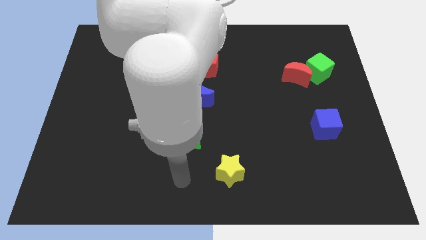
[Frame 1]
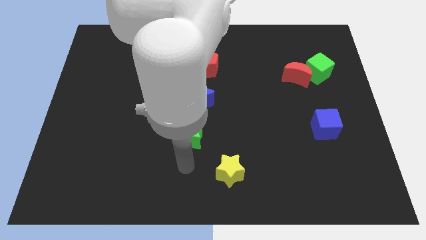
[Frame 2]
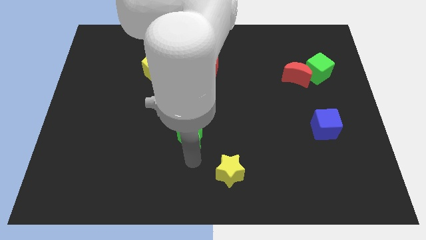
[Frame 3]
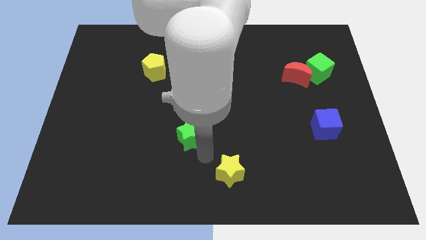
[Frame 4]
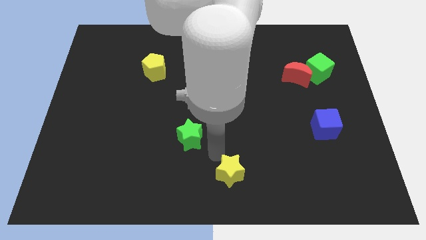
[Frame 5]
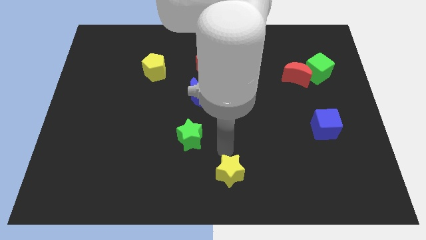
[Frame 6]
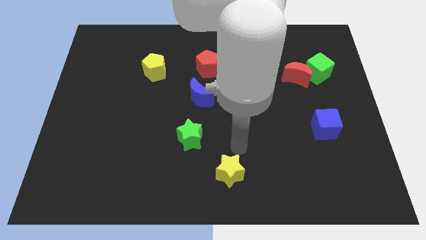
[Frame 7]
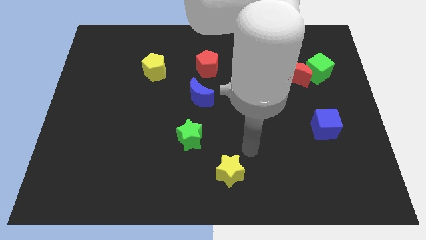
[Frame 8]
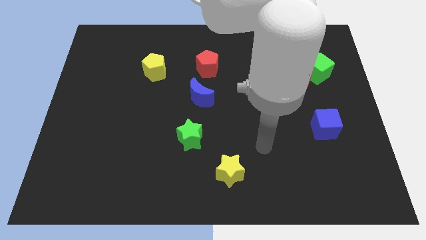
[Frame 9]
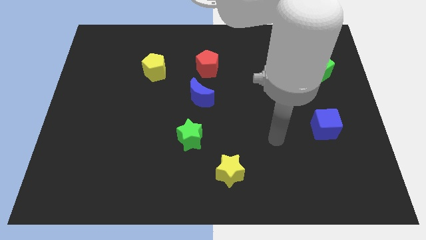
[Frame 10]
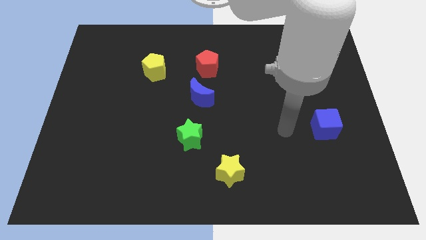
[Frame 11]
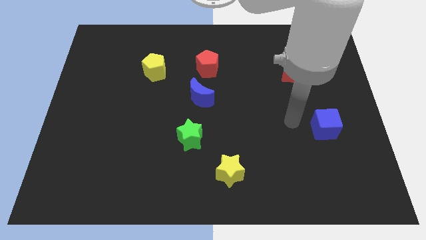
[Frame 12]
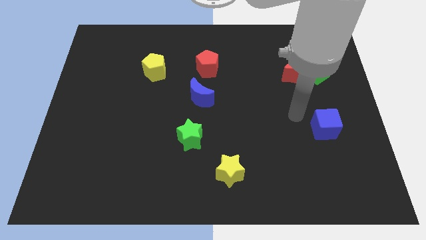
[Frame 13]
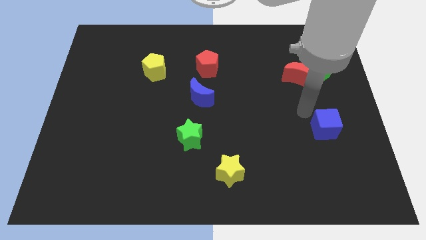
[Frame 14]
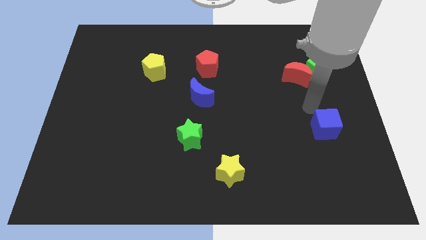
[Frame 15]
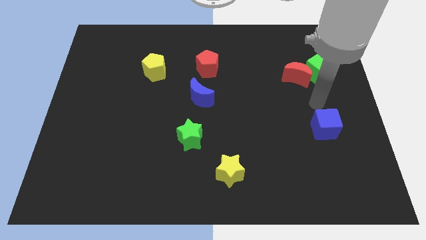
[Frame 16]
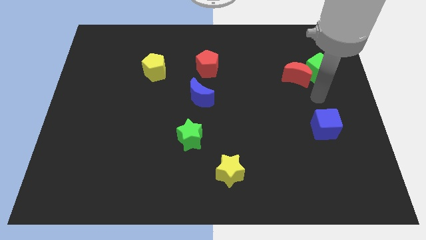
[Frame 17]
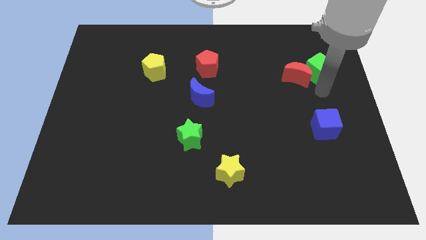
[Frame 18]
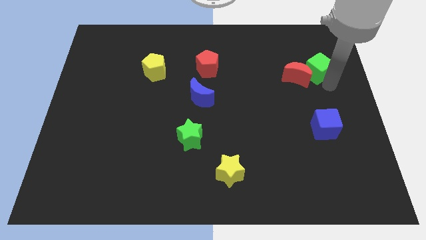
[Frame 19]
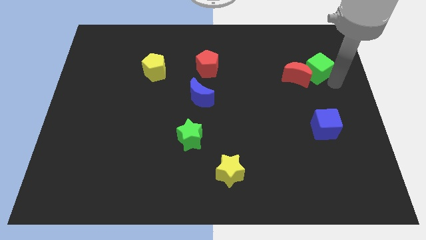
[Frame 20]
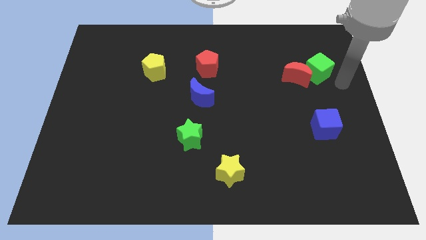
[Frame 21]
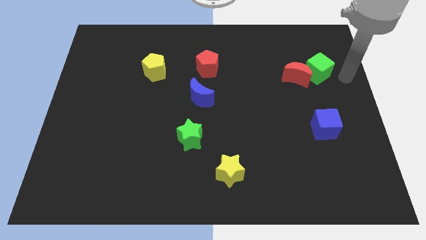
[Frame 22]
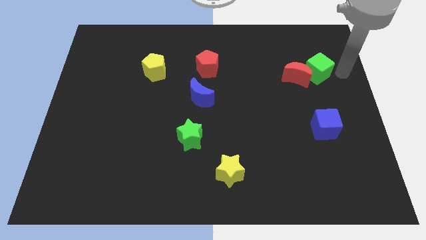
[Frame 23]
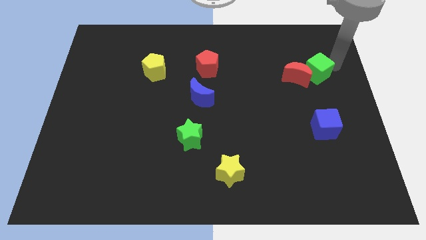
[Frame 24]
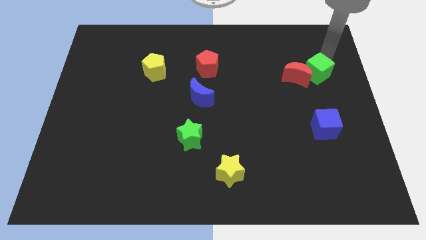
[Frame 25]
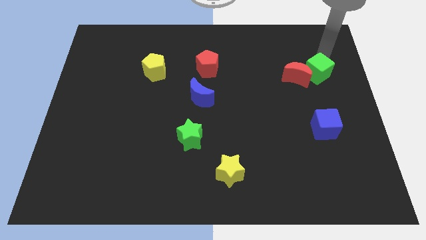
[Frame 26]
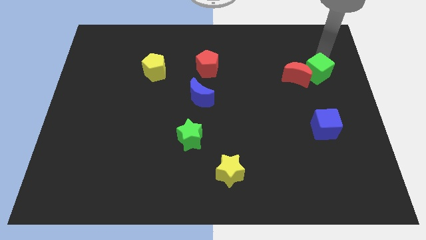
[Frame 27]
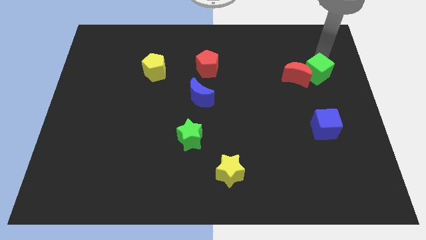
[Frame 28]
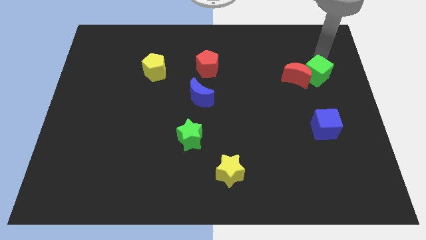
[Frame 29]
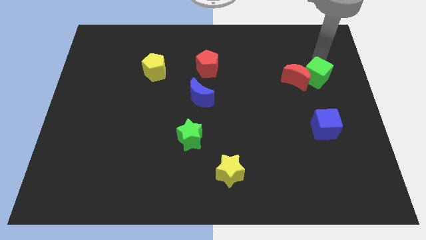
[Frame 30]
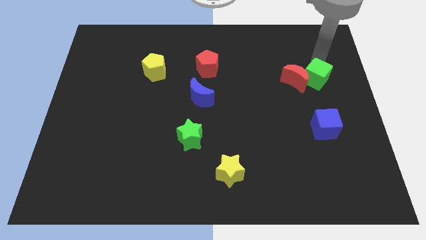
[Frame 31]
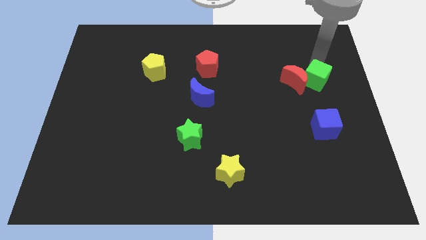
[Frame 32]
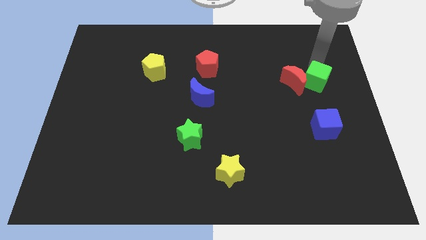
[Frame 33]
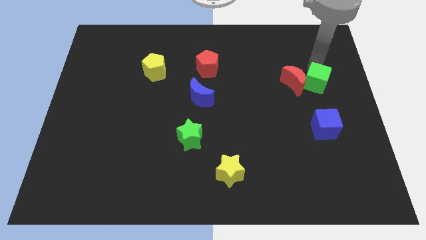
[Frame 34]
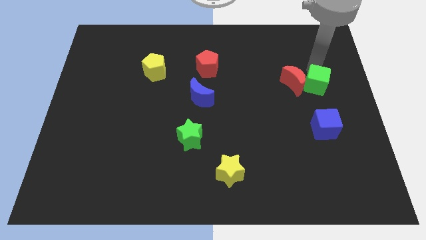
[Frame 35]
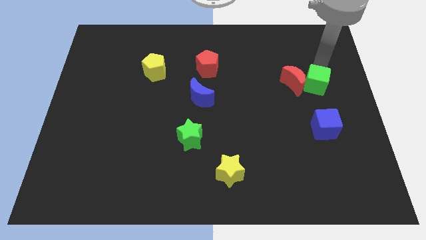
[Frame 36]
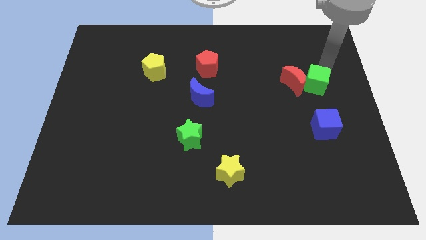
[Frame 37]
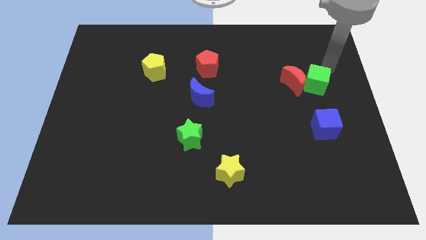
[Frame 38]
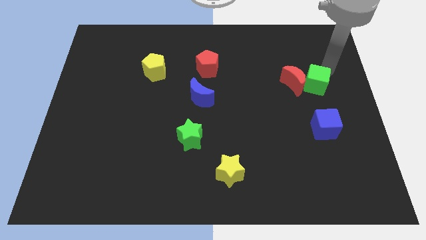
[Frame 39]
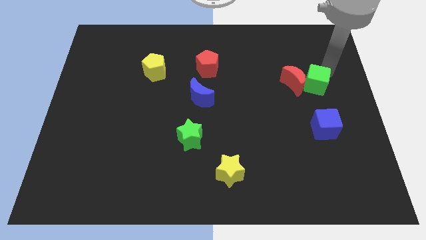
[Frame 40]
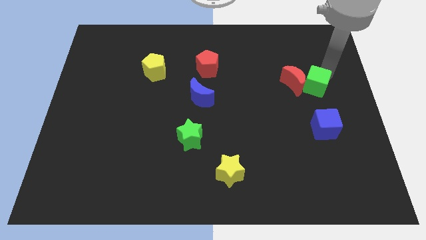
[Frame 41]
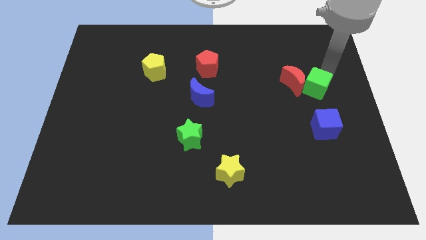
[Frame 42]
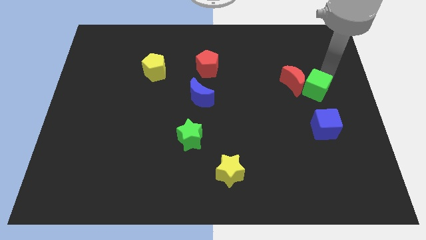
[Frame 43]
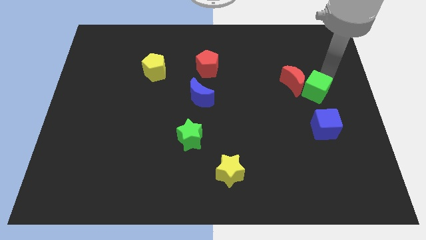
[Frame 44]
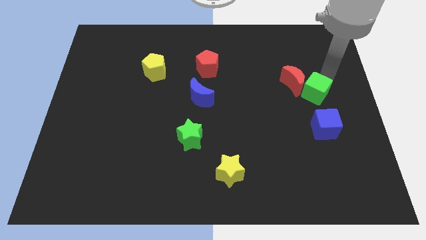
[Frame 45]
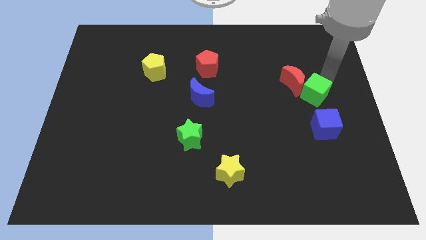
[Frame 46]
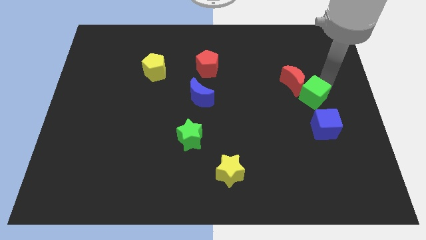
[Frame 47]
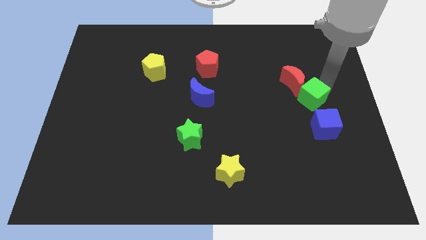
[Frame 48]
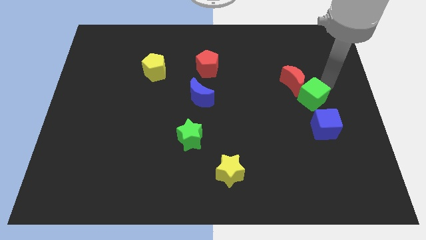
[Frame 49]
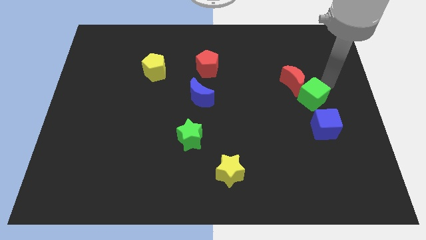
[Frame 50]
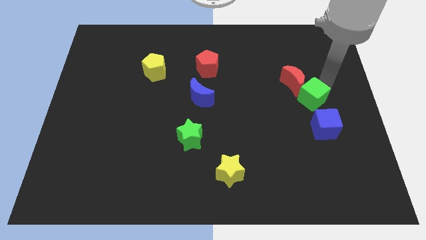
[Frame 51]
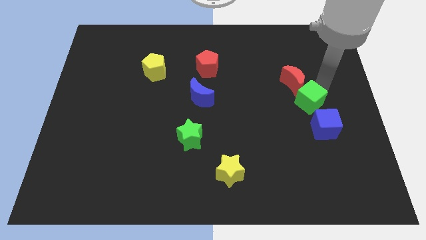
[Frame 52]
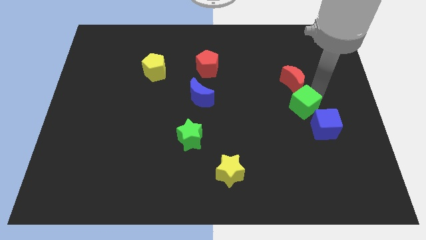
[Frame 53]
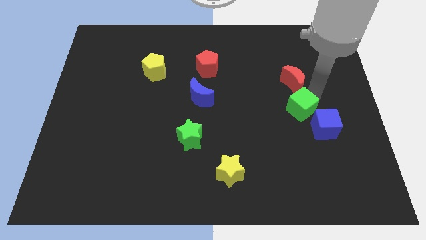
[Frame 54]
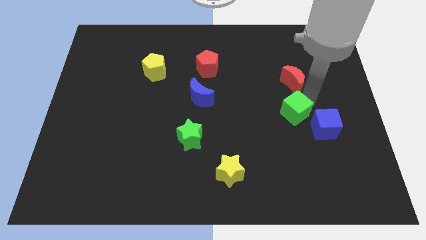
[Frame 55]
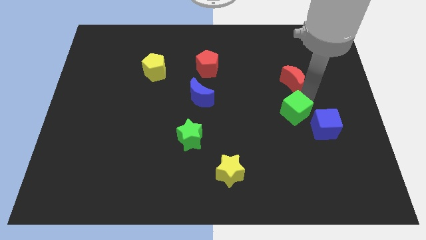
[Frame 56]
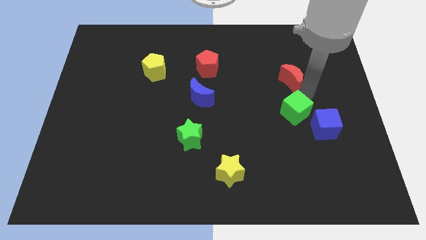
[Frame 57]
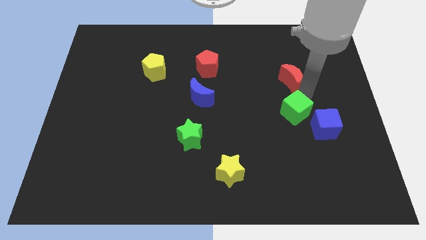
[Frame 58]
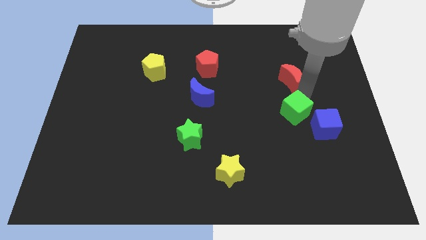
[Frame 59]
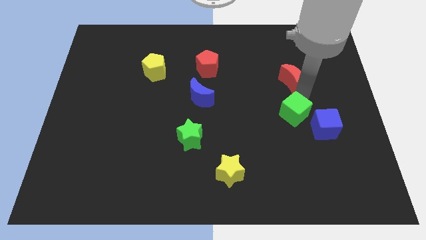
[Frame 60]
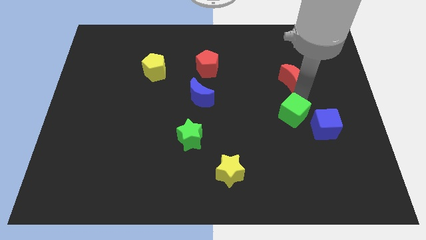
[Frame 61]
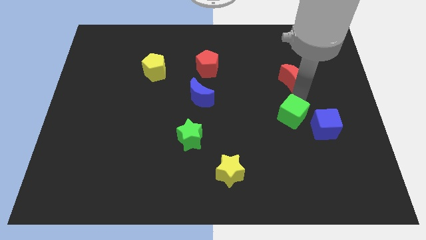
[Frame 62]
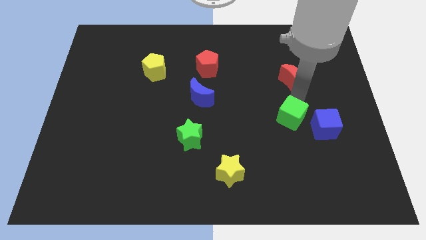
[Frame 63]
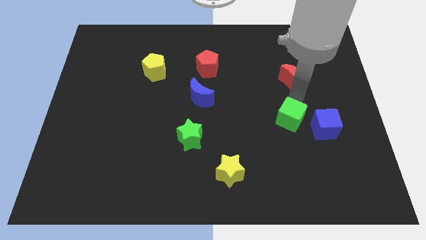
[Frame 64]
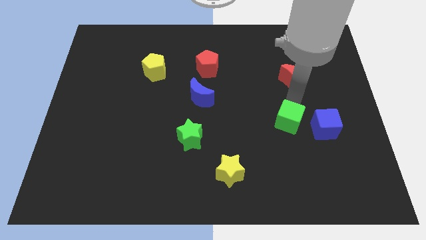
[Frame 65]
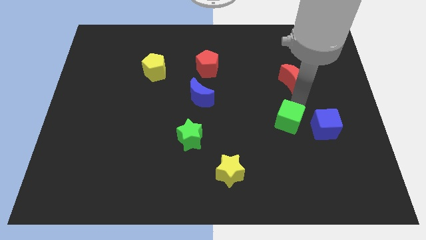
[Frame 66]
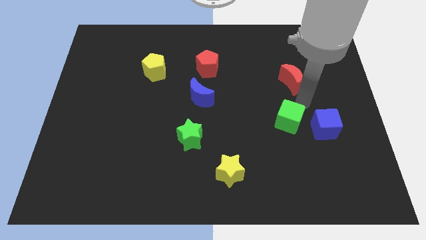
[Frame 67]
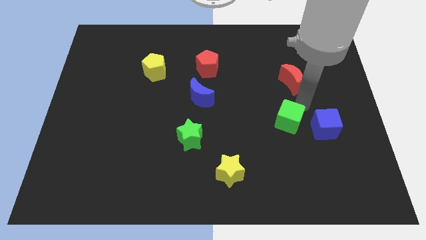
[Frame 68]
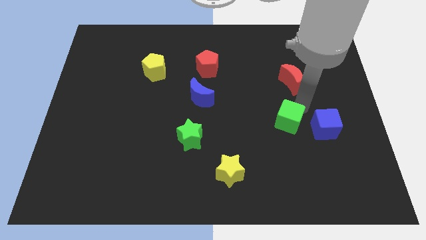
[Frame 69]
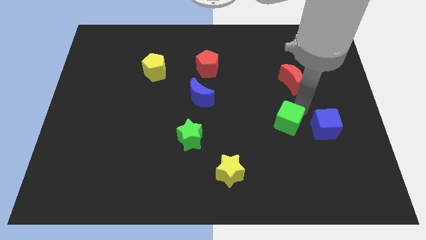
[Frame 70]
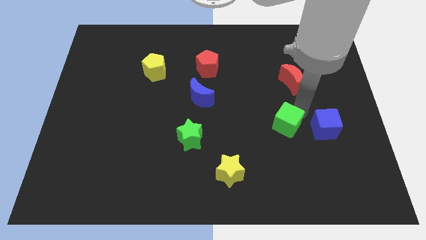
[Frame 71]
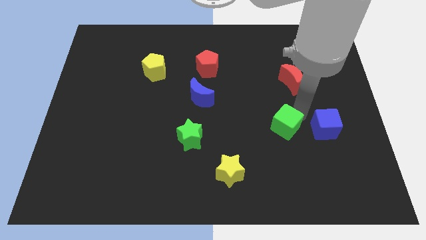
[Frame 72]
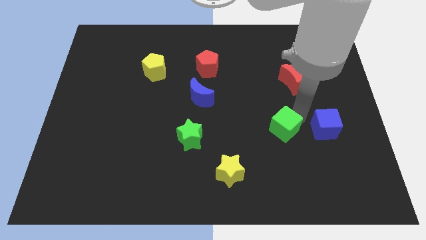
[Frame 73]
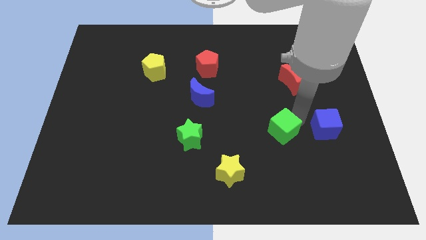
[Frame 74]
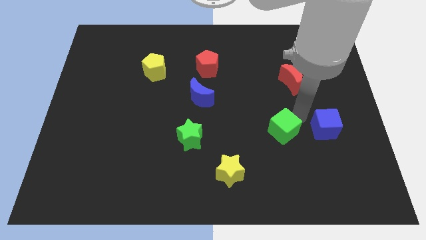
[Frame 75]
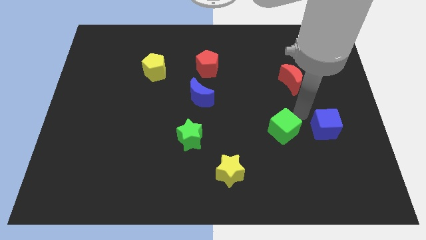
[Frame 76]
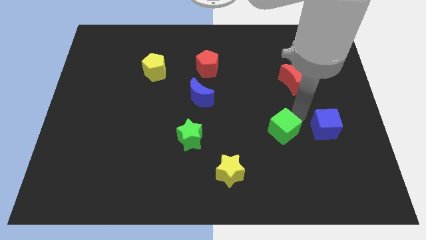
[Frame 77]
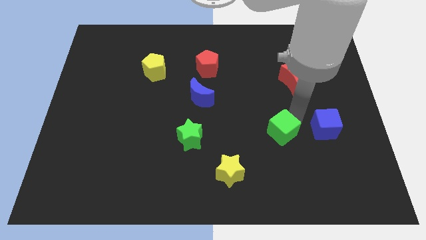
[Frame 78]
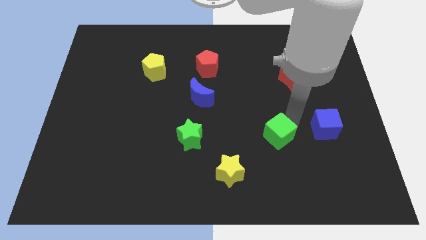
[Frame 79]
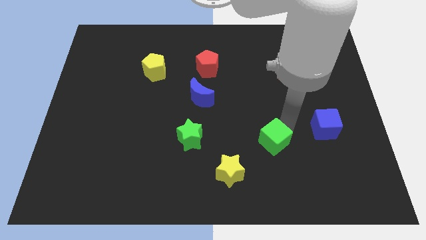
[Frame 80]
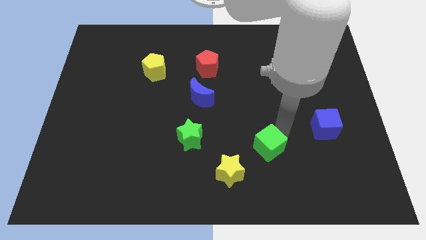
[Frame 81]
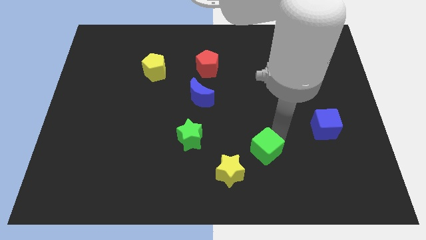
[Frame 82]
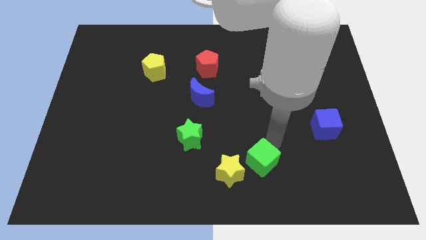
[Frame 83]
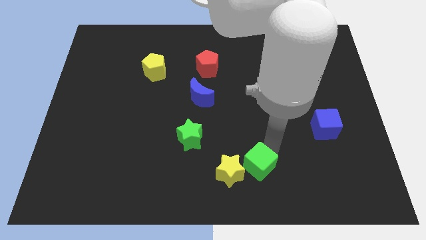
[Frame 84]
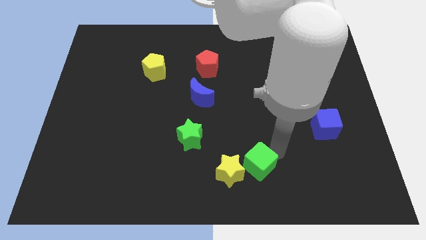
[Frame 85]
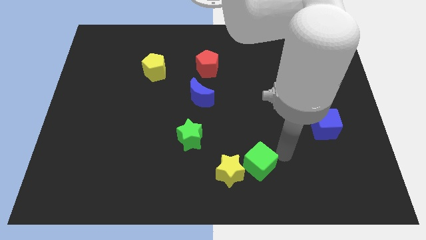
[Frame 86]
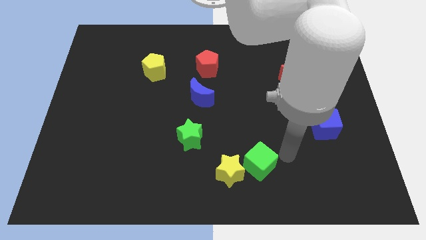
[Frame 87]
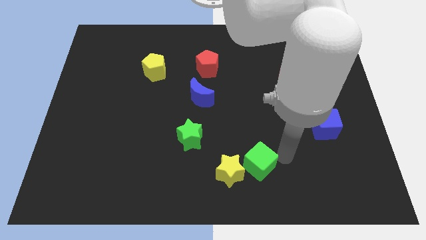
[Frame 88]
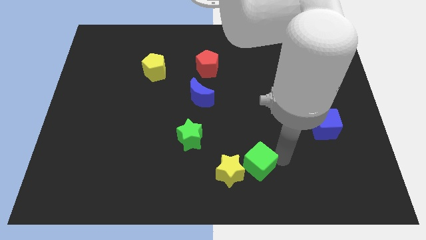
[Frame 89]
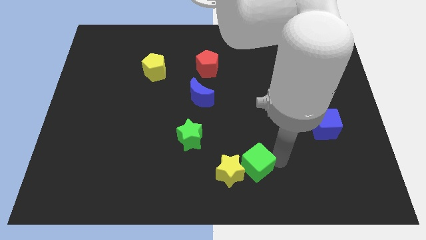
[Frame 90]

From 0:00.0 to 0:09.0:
push the green cube next to the yellow star
